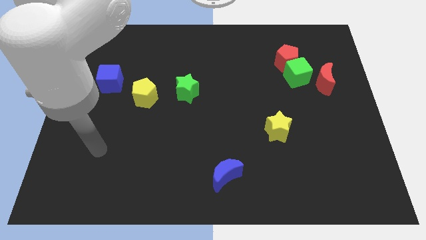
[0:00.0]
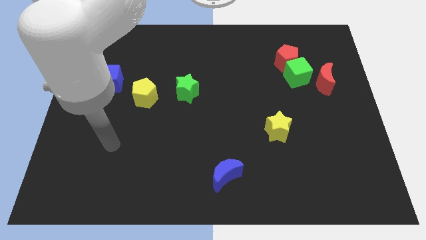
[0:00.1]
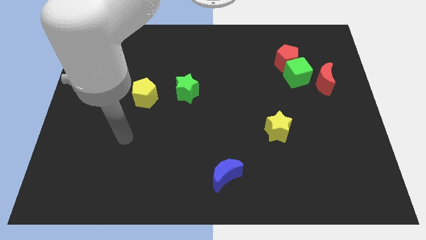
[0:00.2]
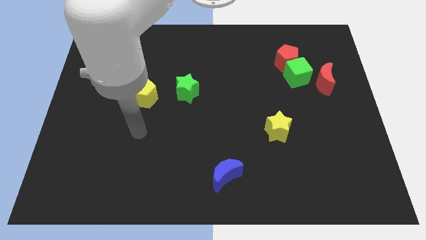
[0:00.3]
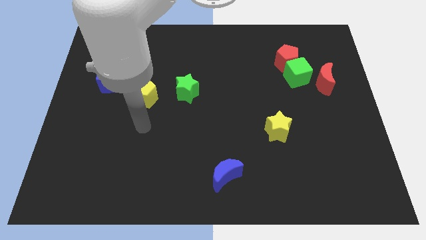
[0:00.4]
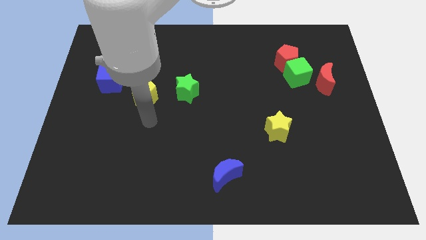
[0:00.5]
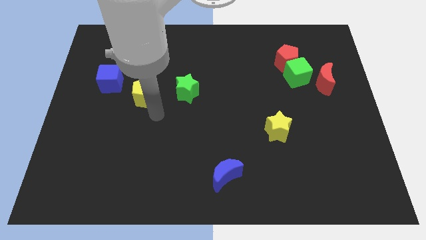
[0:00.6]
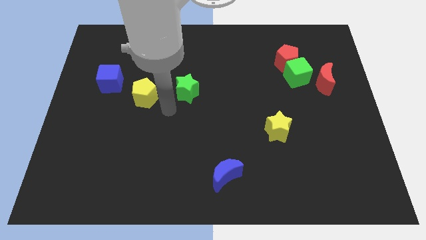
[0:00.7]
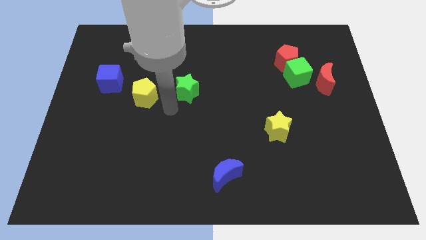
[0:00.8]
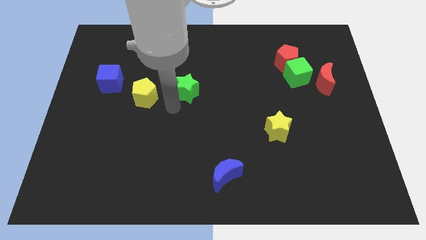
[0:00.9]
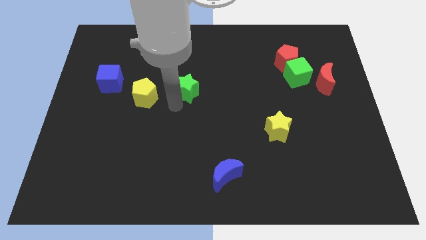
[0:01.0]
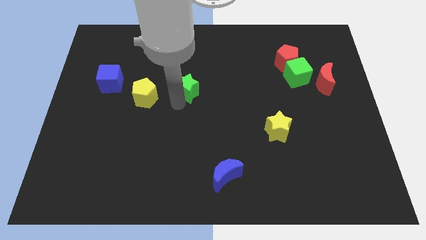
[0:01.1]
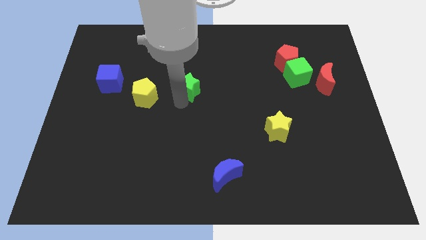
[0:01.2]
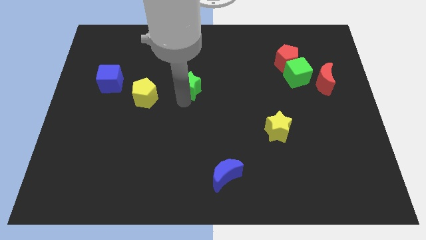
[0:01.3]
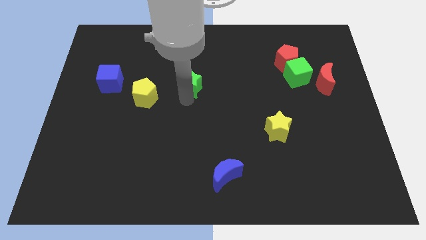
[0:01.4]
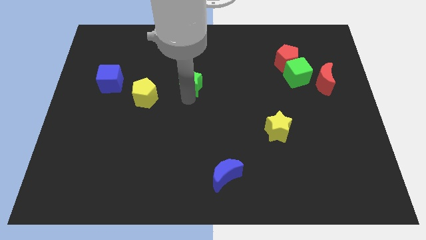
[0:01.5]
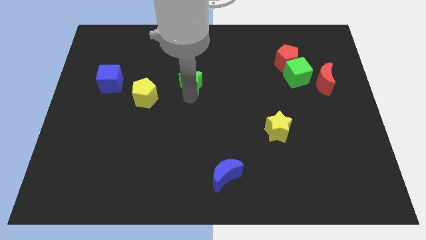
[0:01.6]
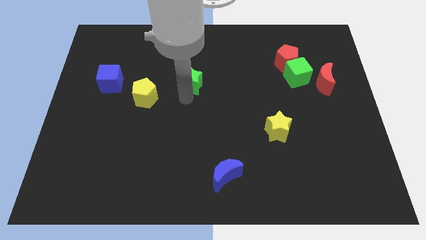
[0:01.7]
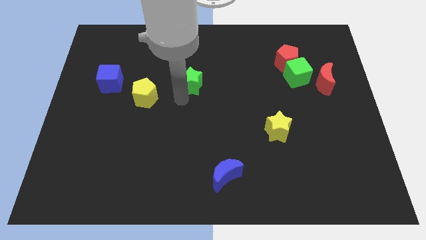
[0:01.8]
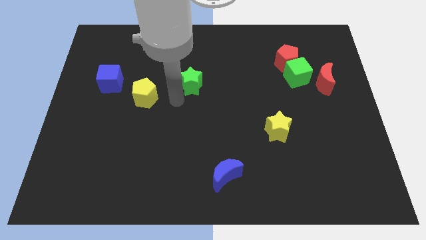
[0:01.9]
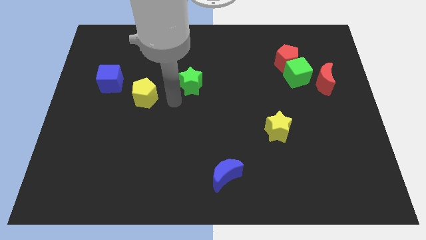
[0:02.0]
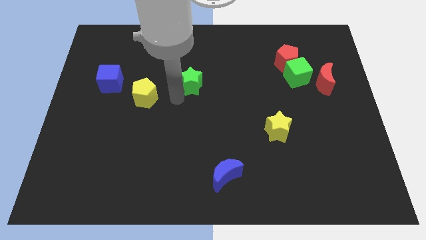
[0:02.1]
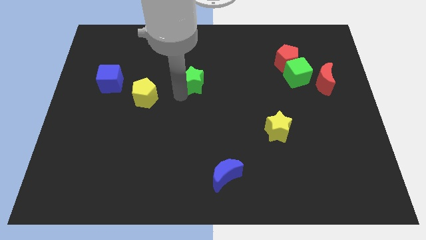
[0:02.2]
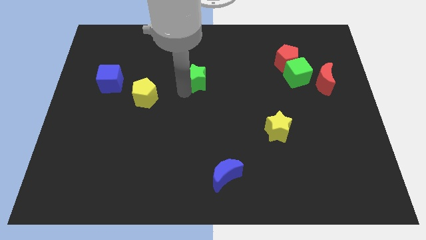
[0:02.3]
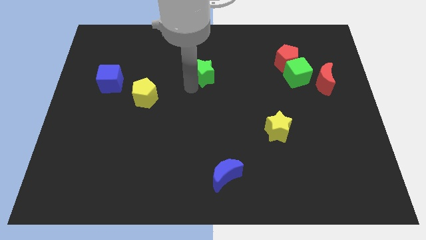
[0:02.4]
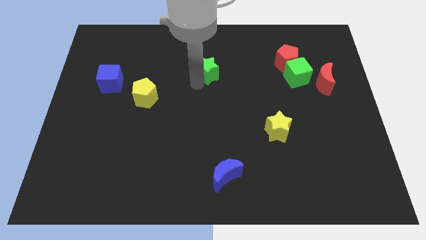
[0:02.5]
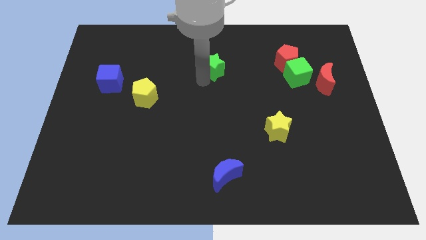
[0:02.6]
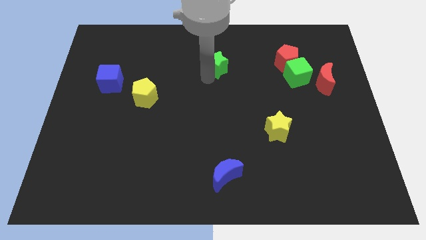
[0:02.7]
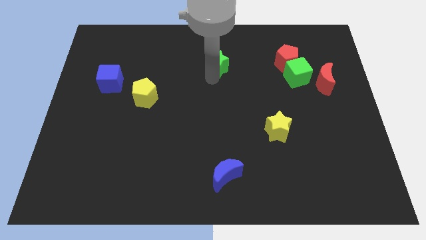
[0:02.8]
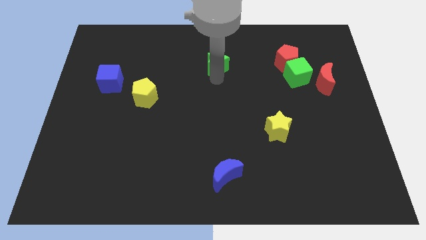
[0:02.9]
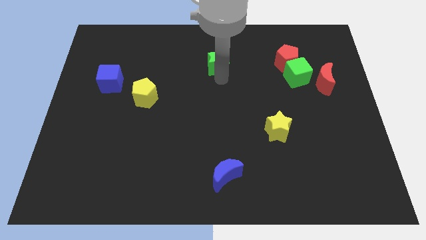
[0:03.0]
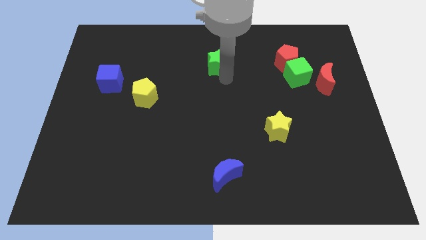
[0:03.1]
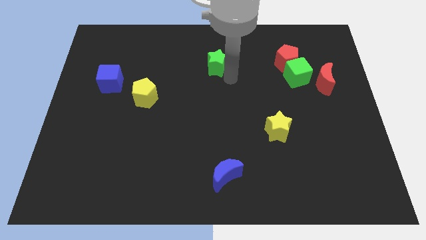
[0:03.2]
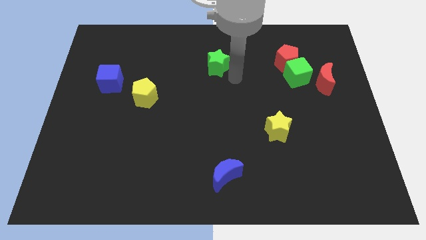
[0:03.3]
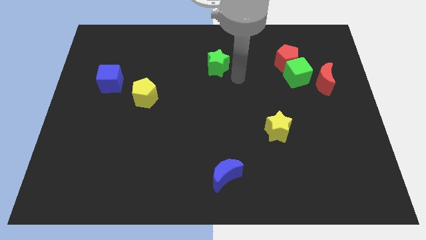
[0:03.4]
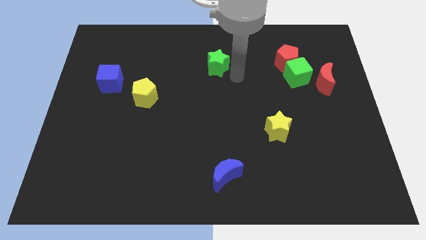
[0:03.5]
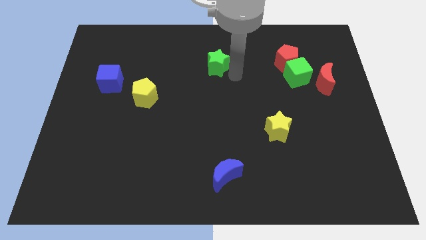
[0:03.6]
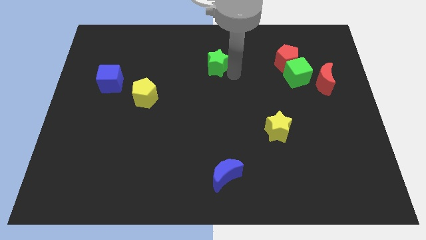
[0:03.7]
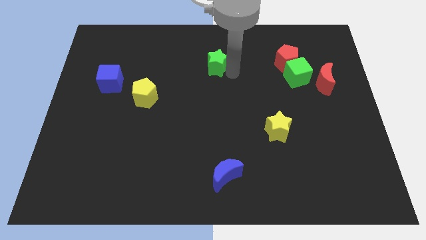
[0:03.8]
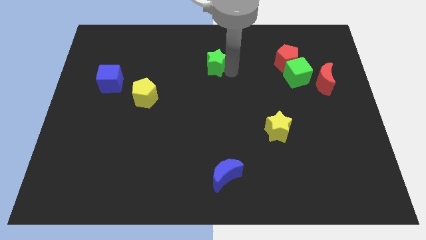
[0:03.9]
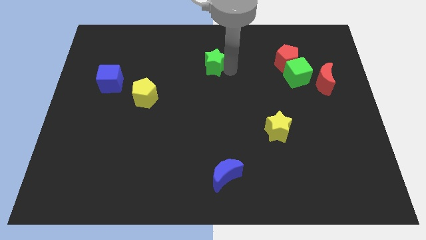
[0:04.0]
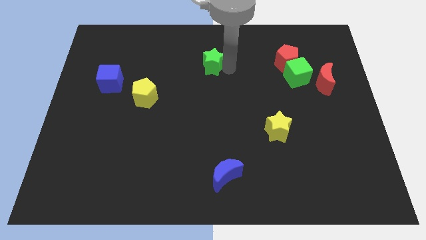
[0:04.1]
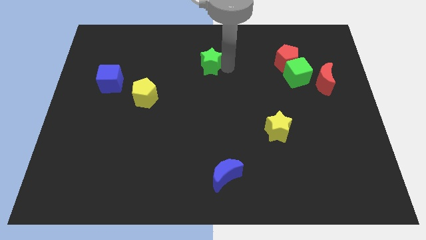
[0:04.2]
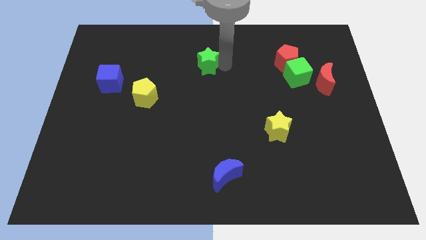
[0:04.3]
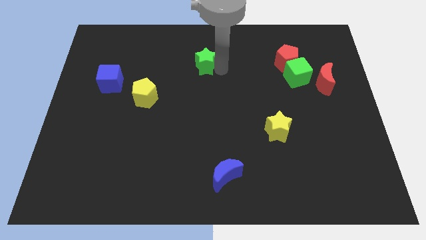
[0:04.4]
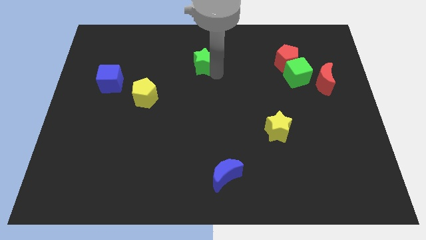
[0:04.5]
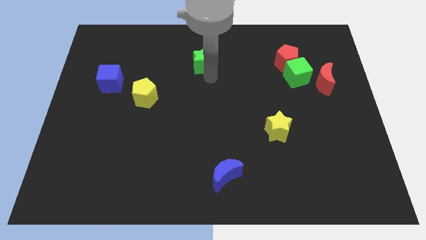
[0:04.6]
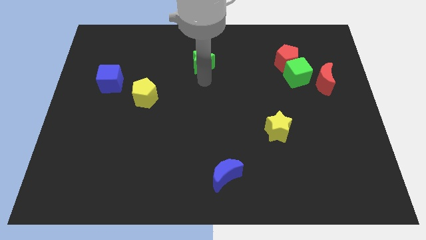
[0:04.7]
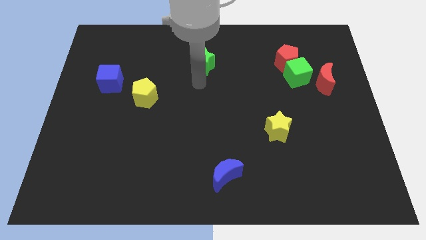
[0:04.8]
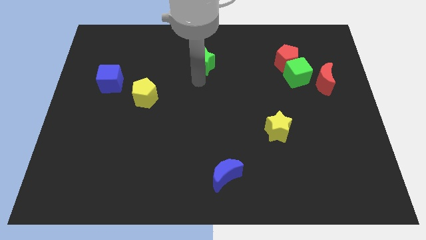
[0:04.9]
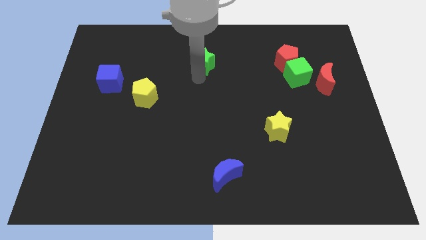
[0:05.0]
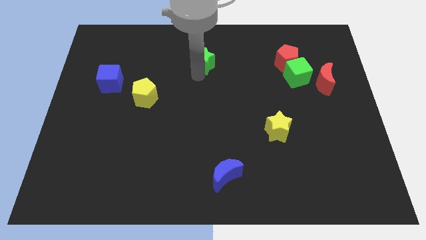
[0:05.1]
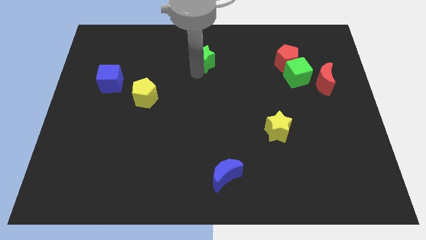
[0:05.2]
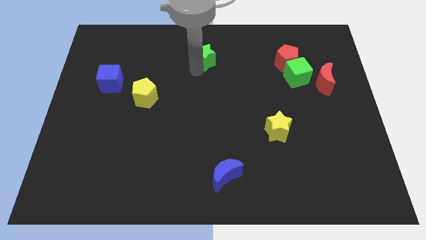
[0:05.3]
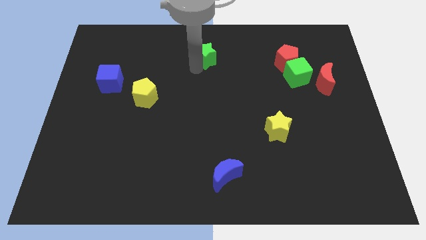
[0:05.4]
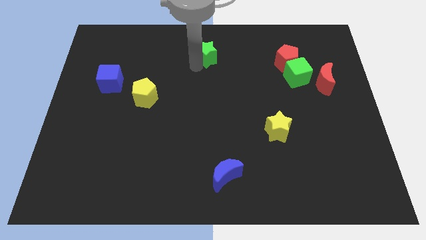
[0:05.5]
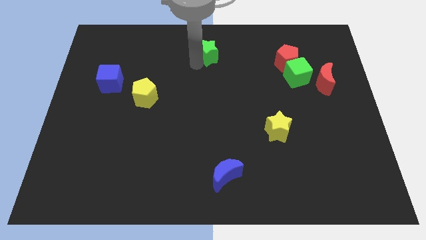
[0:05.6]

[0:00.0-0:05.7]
push the green star to the top
